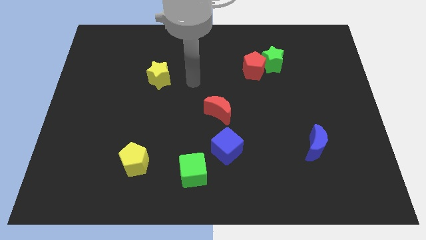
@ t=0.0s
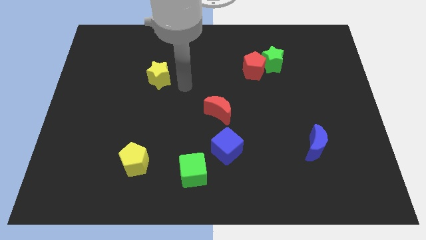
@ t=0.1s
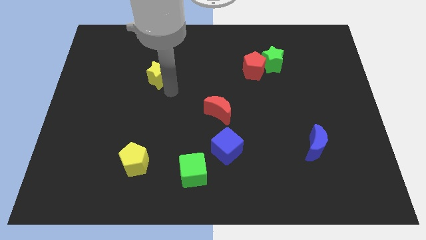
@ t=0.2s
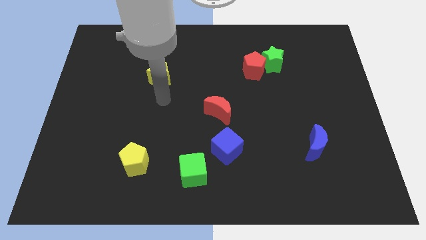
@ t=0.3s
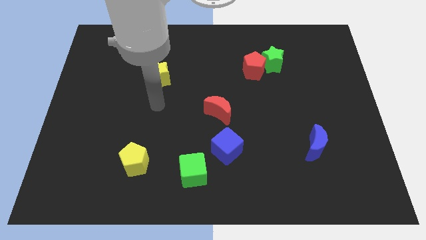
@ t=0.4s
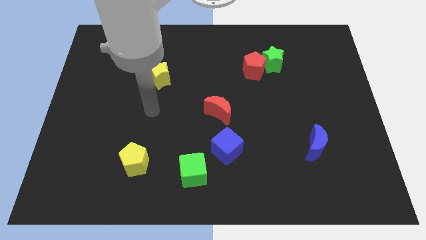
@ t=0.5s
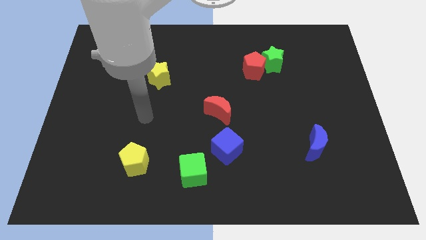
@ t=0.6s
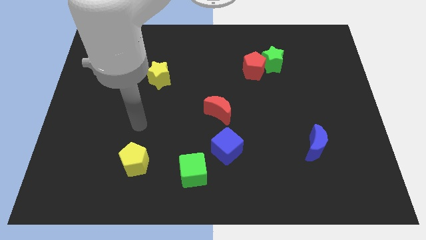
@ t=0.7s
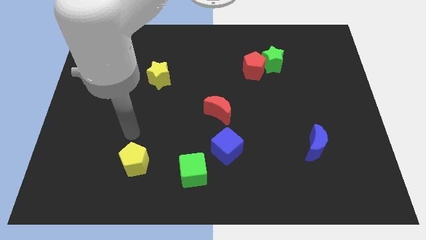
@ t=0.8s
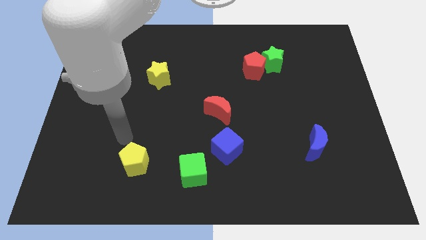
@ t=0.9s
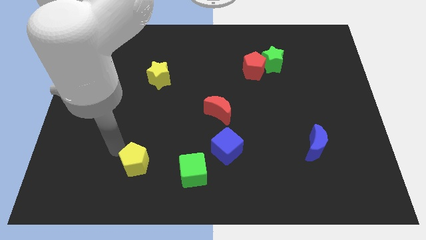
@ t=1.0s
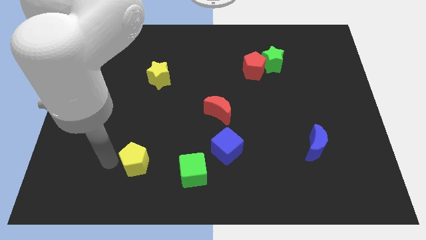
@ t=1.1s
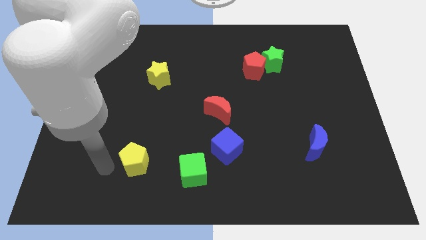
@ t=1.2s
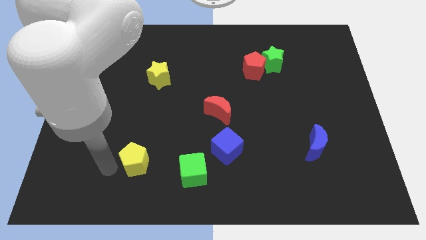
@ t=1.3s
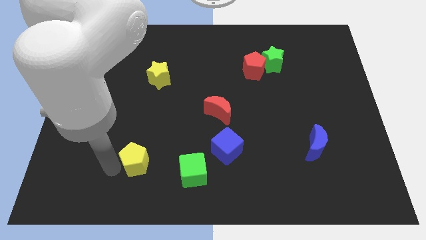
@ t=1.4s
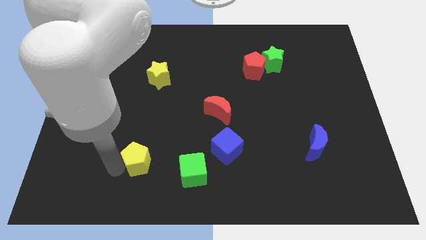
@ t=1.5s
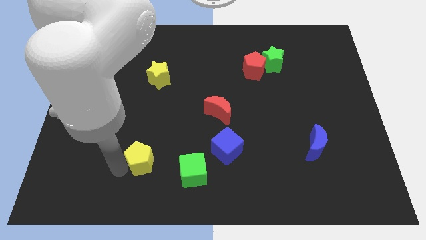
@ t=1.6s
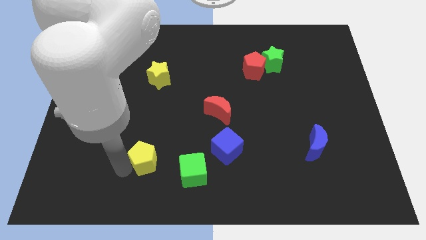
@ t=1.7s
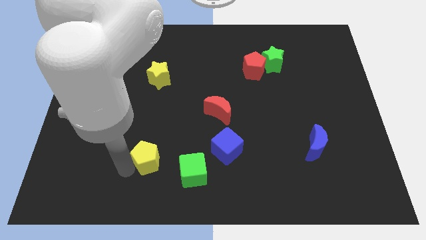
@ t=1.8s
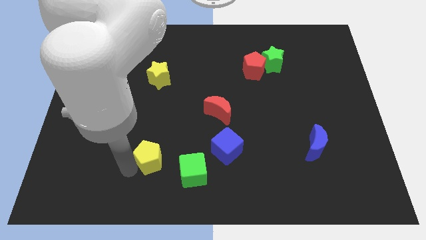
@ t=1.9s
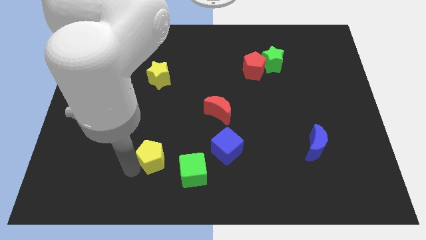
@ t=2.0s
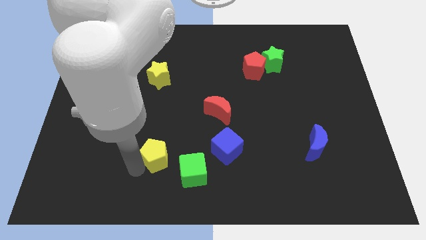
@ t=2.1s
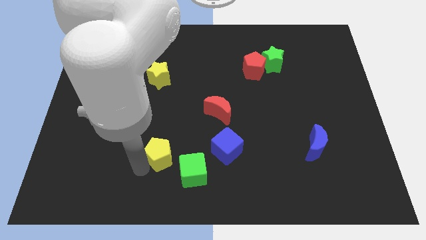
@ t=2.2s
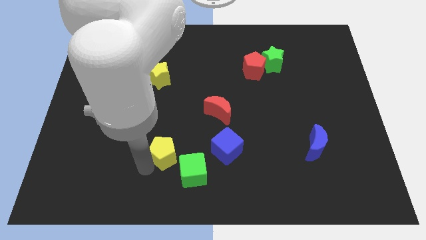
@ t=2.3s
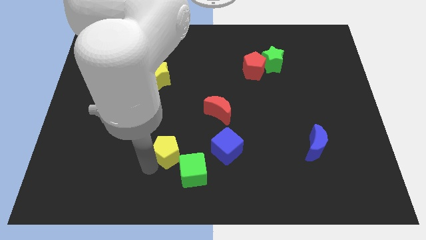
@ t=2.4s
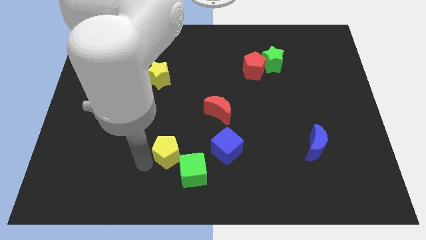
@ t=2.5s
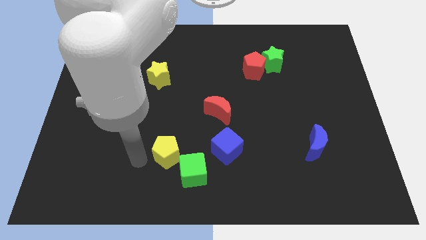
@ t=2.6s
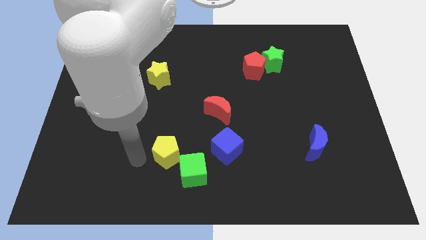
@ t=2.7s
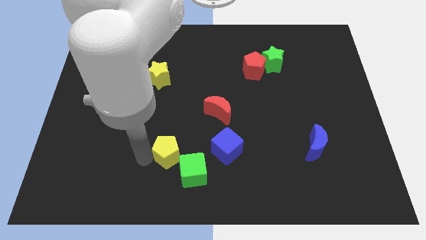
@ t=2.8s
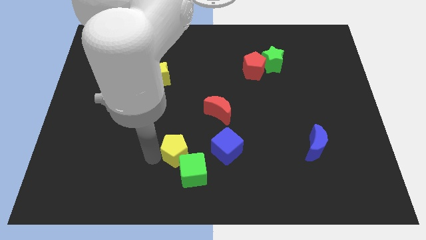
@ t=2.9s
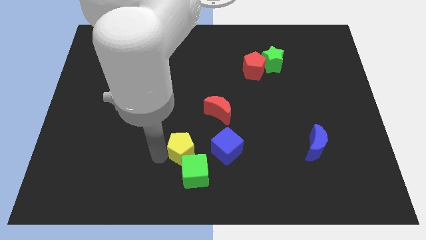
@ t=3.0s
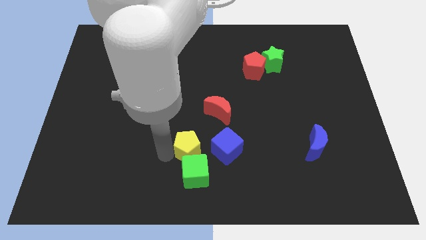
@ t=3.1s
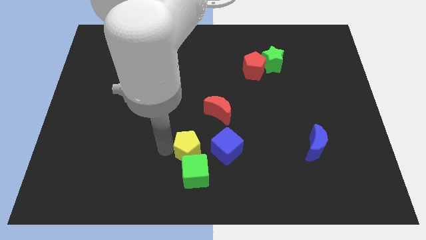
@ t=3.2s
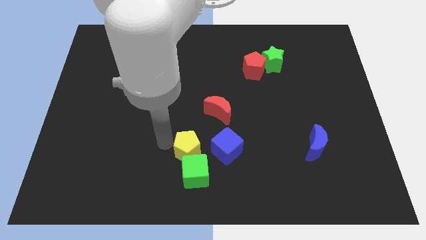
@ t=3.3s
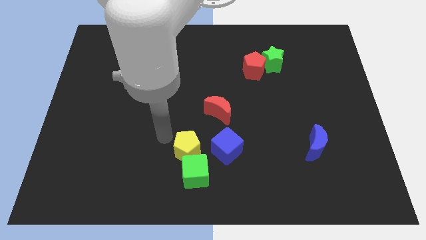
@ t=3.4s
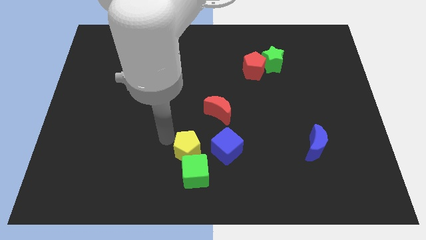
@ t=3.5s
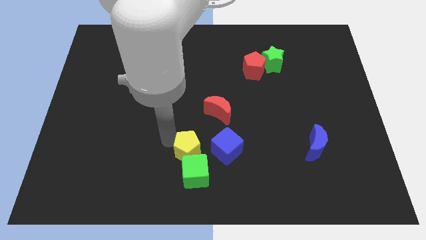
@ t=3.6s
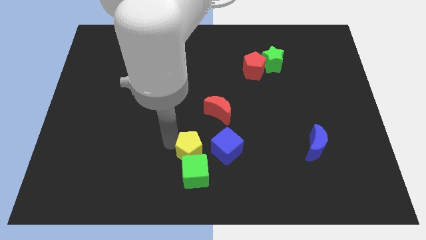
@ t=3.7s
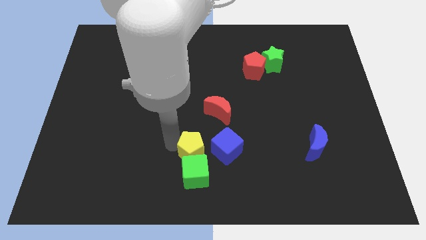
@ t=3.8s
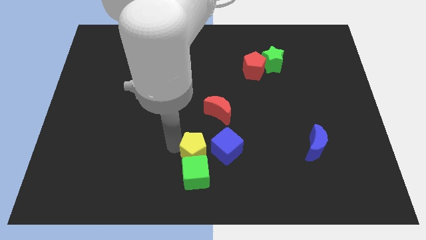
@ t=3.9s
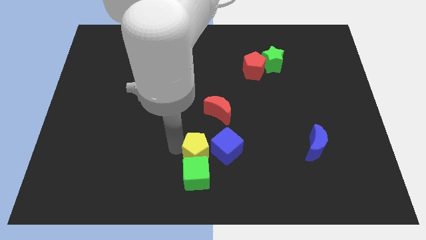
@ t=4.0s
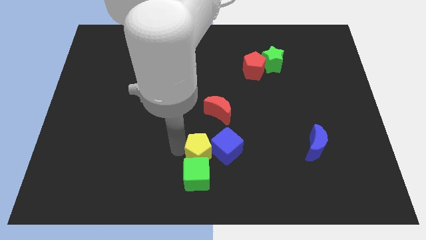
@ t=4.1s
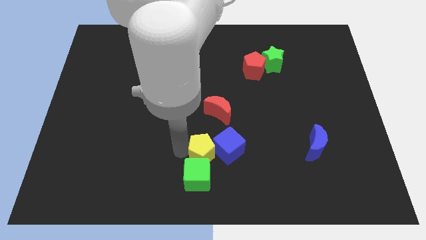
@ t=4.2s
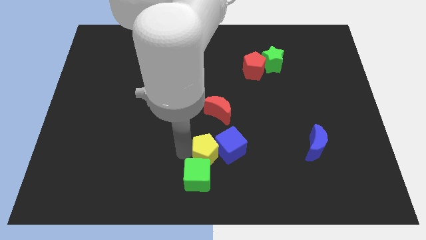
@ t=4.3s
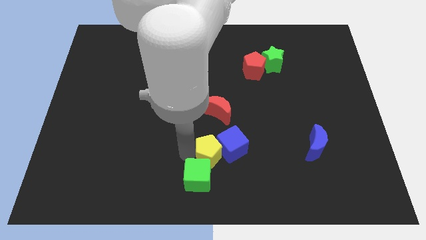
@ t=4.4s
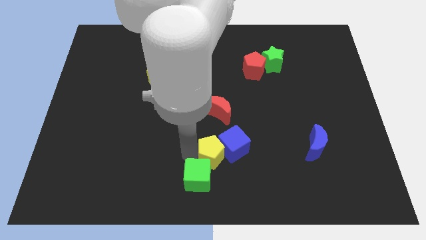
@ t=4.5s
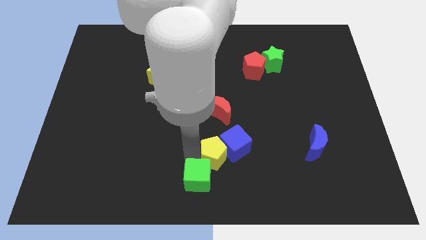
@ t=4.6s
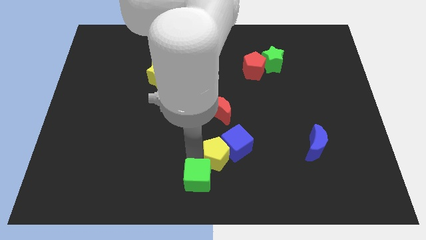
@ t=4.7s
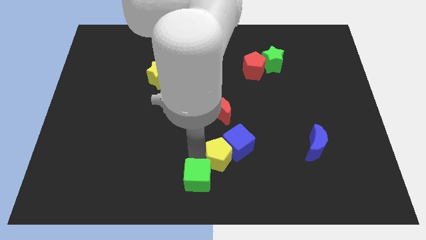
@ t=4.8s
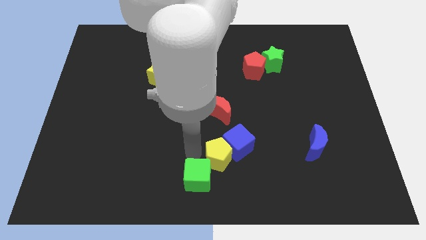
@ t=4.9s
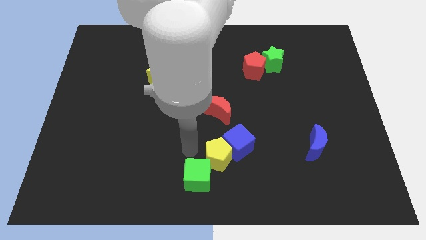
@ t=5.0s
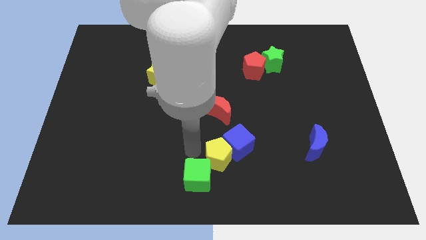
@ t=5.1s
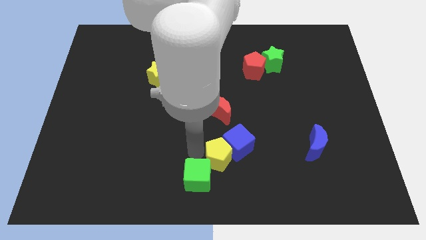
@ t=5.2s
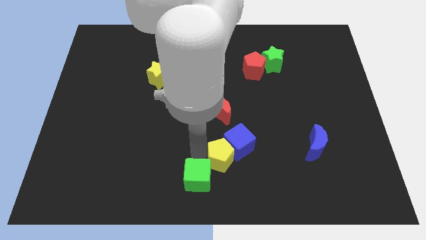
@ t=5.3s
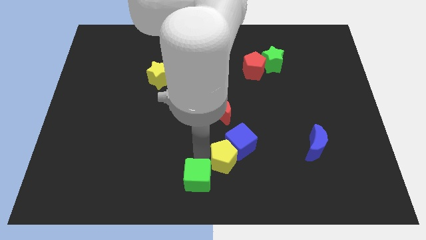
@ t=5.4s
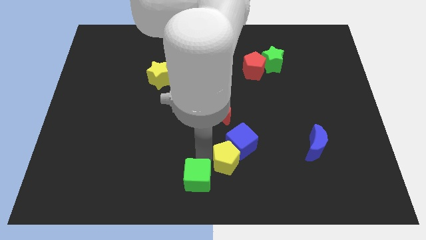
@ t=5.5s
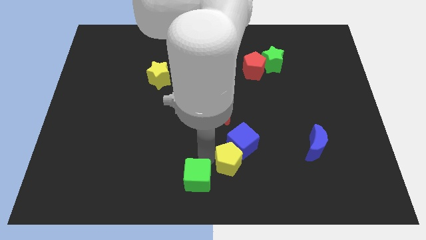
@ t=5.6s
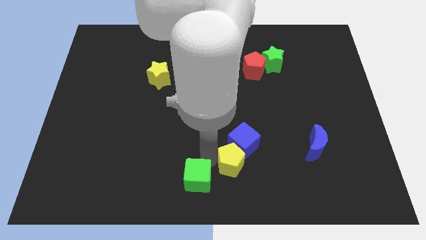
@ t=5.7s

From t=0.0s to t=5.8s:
move the yellow pentagon to the right

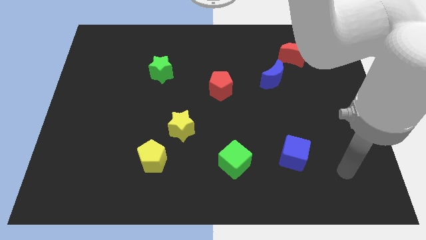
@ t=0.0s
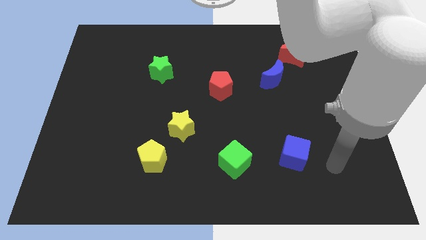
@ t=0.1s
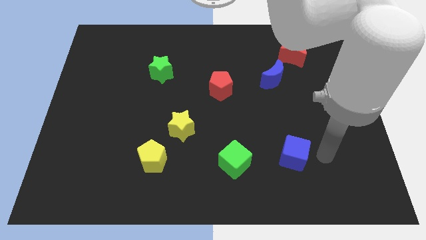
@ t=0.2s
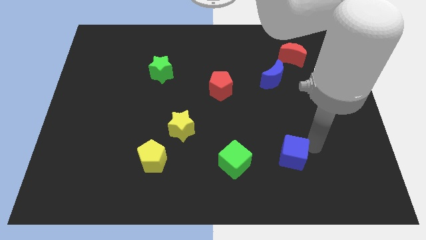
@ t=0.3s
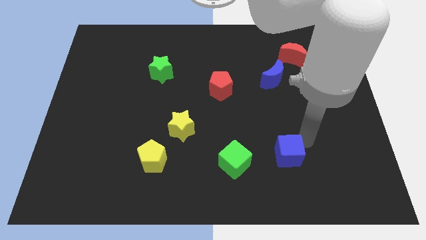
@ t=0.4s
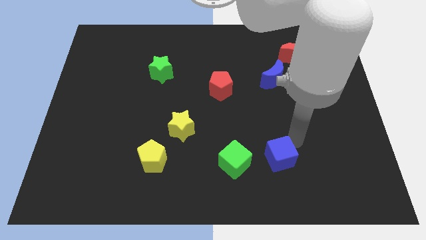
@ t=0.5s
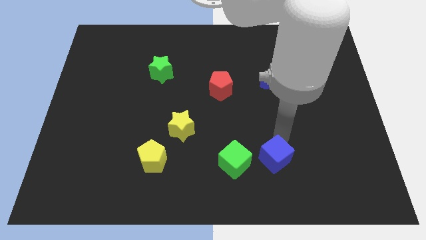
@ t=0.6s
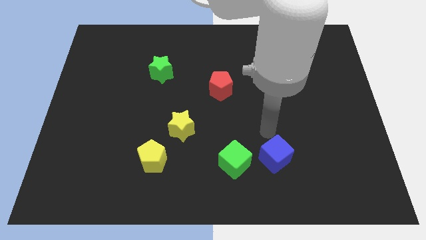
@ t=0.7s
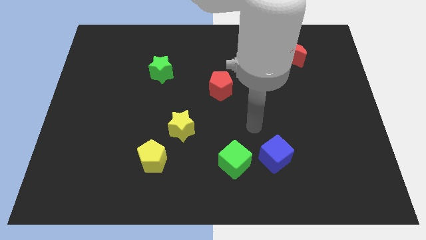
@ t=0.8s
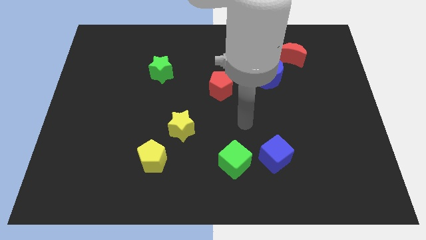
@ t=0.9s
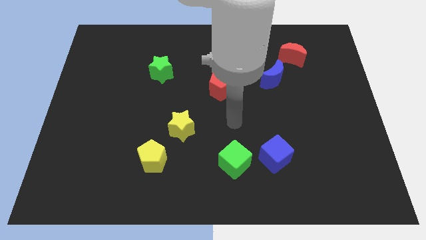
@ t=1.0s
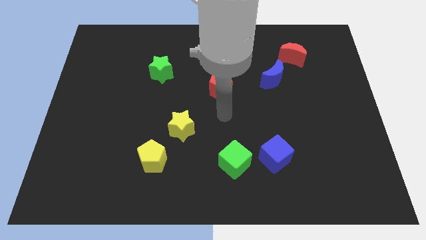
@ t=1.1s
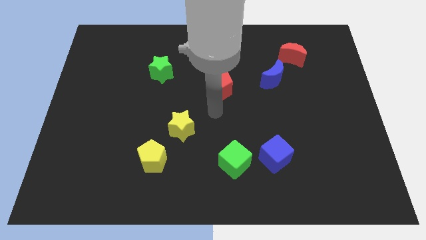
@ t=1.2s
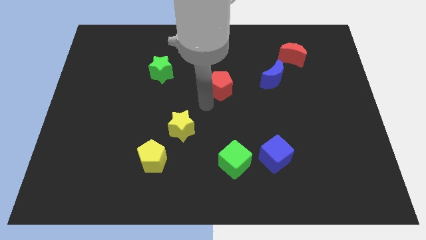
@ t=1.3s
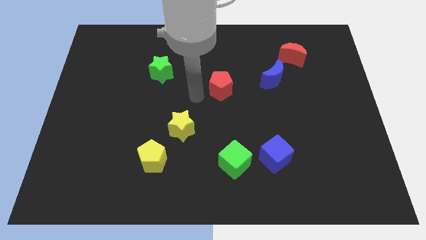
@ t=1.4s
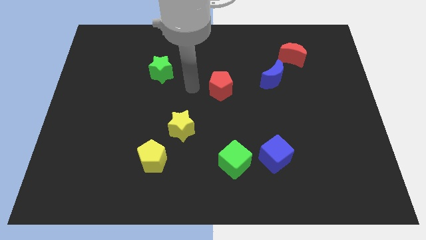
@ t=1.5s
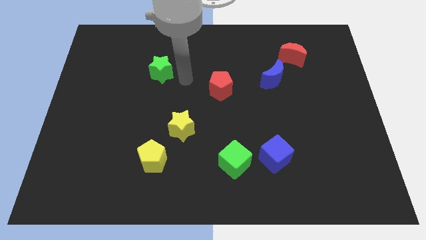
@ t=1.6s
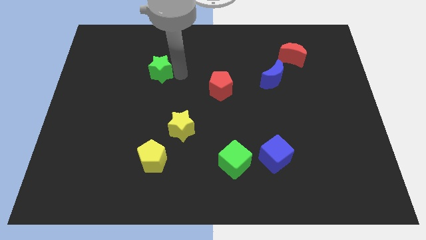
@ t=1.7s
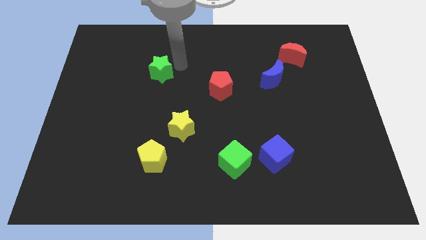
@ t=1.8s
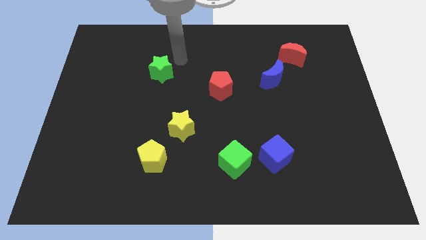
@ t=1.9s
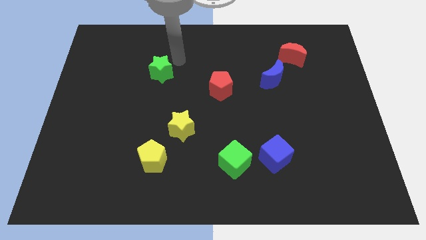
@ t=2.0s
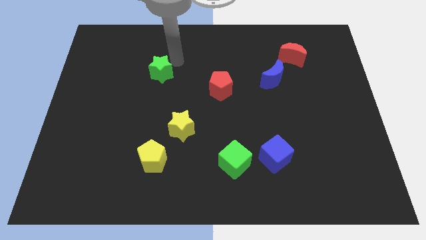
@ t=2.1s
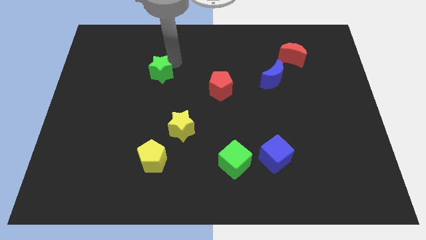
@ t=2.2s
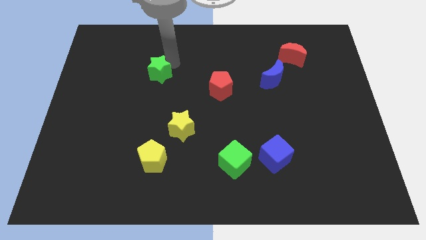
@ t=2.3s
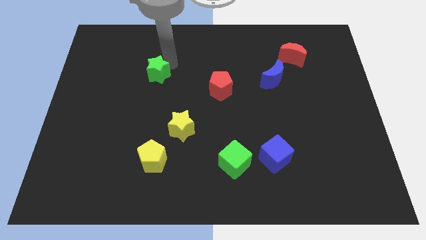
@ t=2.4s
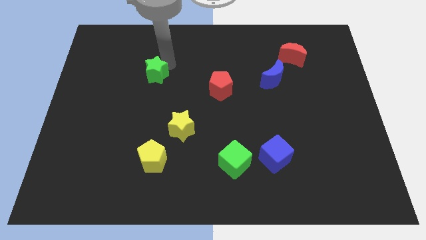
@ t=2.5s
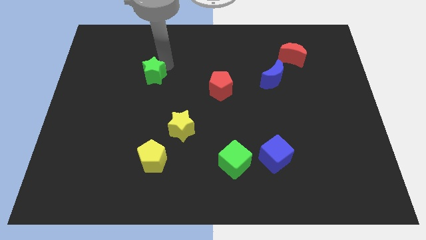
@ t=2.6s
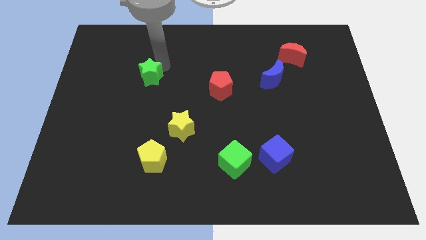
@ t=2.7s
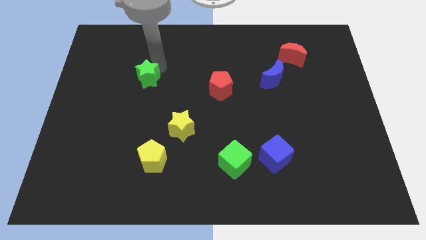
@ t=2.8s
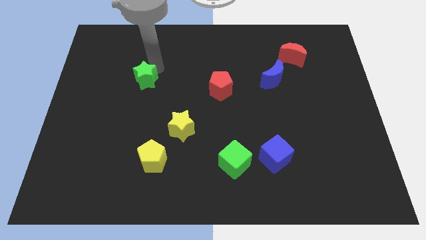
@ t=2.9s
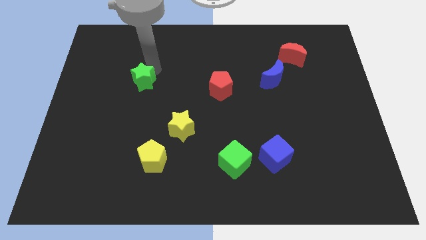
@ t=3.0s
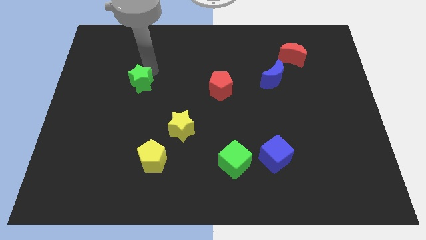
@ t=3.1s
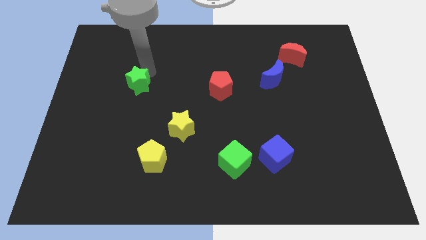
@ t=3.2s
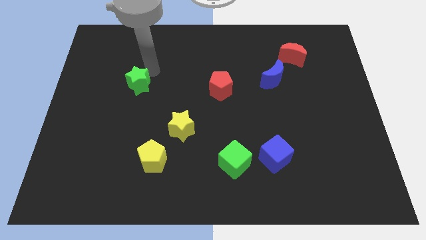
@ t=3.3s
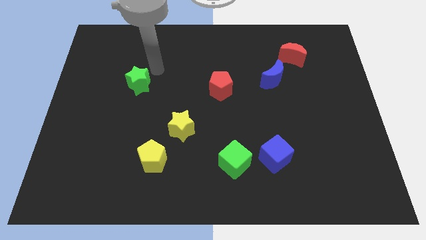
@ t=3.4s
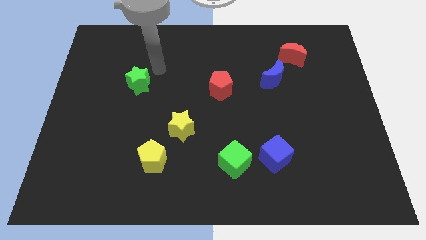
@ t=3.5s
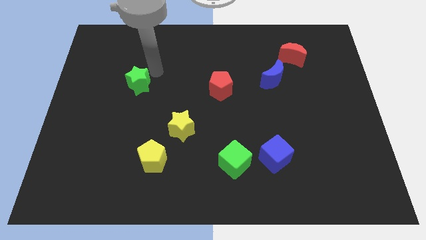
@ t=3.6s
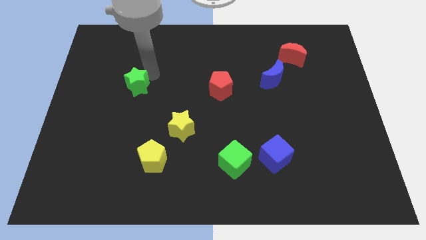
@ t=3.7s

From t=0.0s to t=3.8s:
slide the green star diagonally down and to the left somewhat
